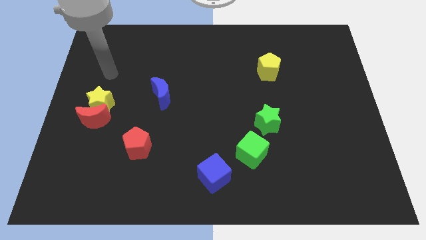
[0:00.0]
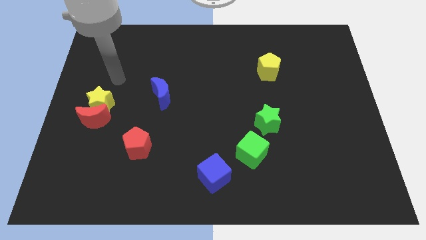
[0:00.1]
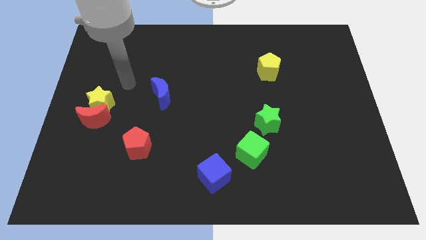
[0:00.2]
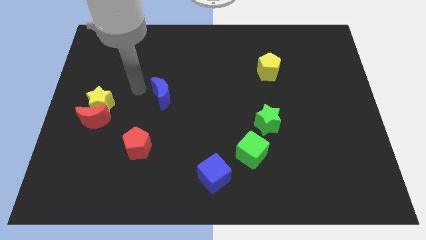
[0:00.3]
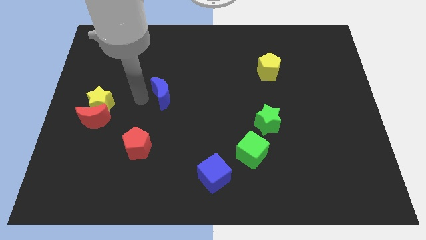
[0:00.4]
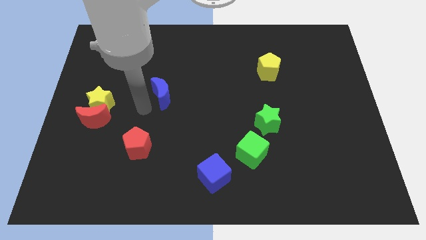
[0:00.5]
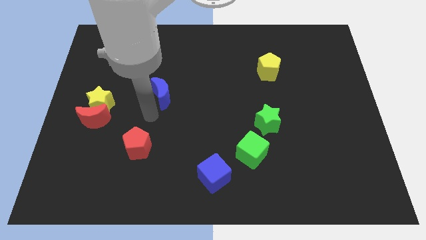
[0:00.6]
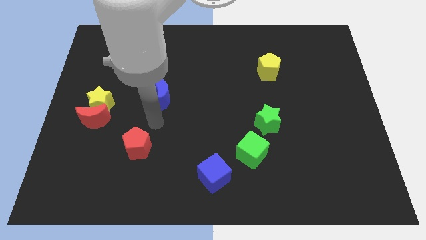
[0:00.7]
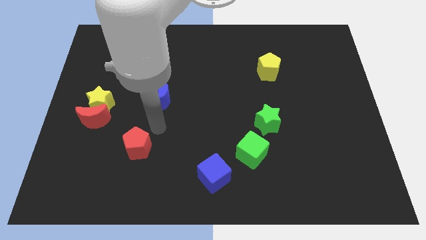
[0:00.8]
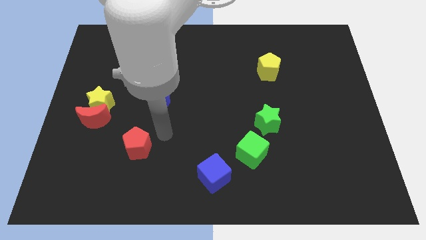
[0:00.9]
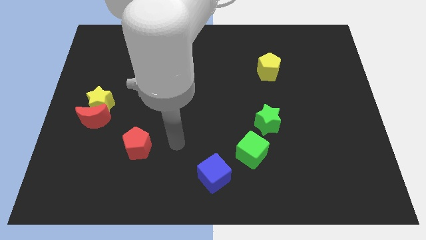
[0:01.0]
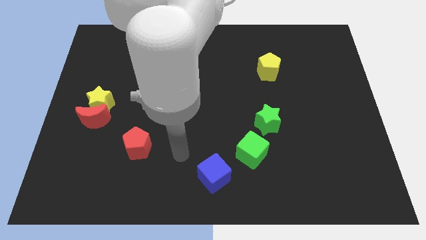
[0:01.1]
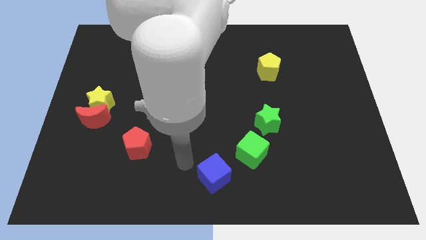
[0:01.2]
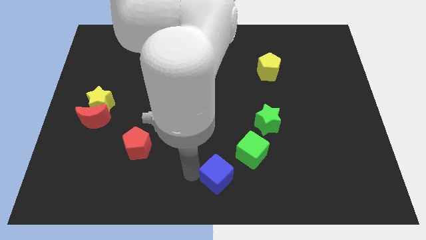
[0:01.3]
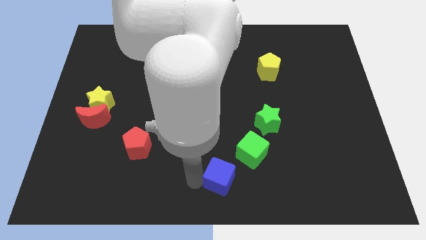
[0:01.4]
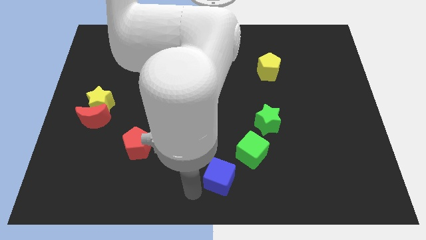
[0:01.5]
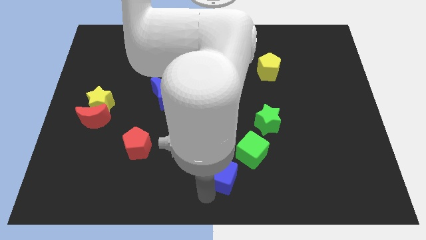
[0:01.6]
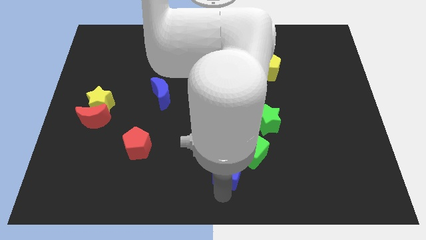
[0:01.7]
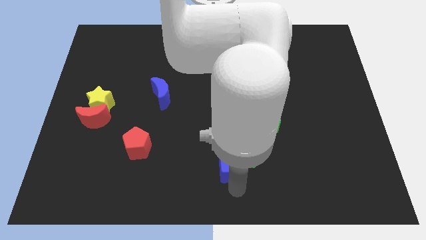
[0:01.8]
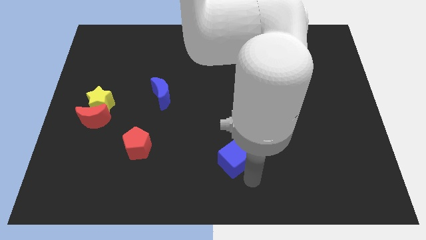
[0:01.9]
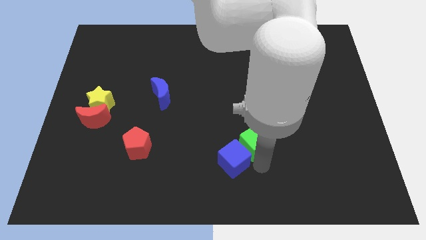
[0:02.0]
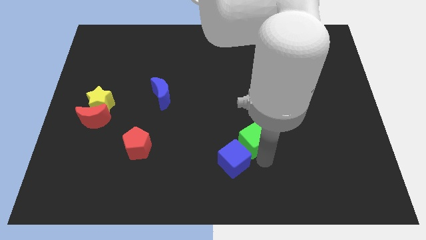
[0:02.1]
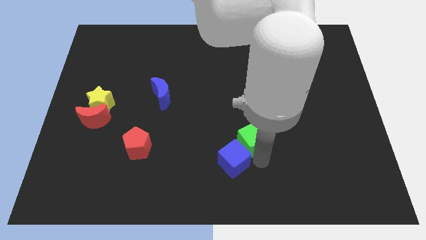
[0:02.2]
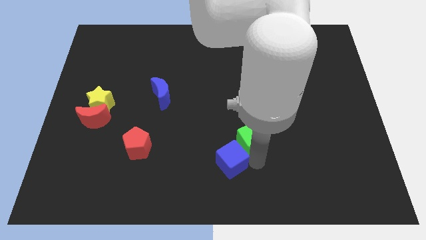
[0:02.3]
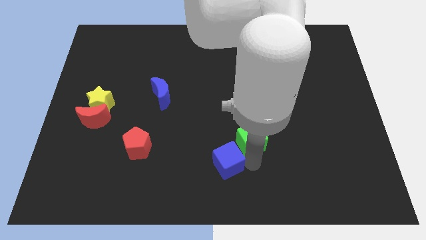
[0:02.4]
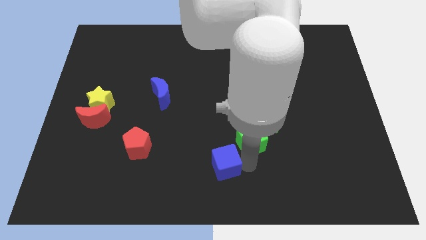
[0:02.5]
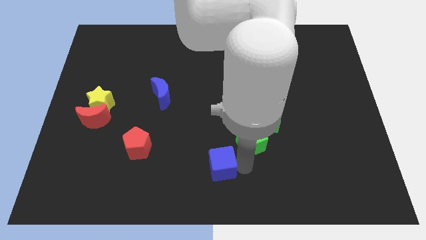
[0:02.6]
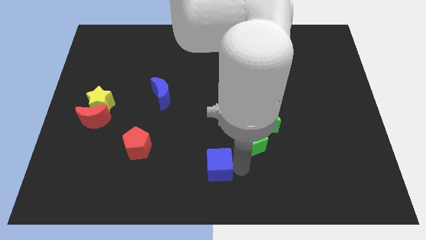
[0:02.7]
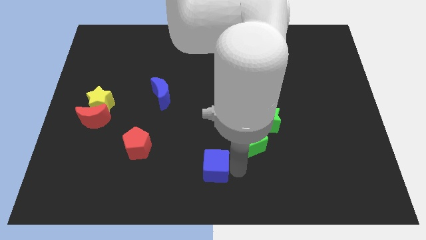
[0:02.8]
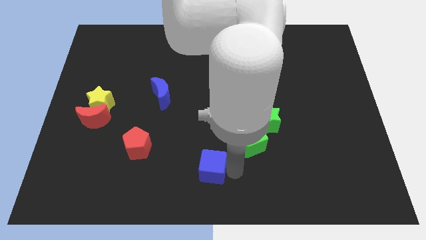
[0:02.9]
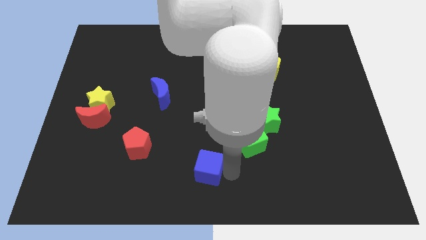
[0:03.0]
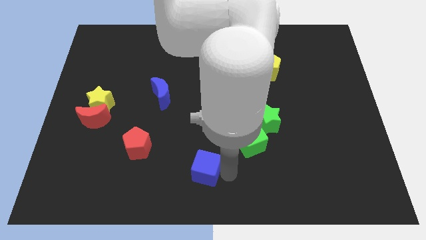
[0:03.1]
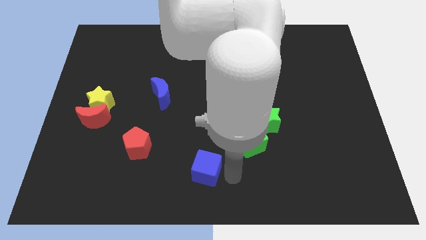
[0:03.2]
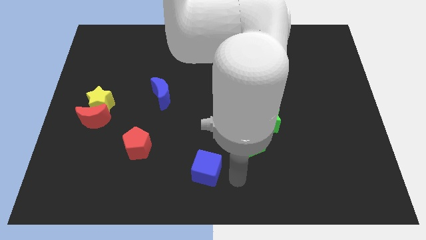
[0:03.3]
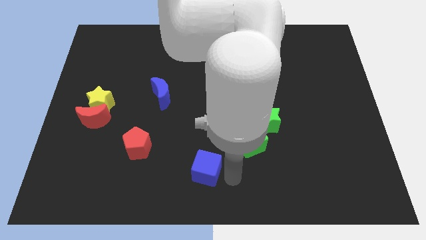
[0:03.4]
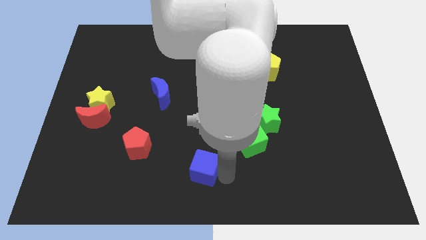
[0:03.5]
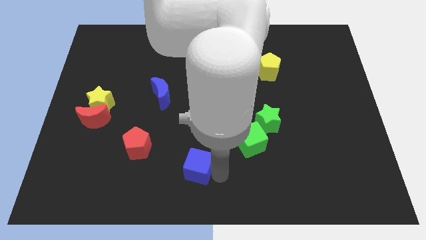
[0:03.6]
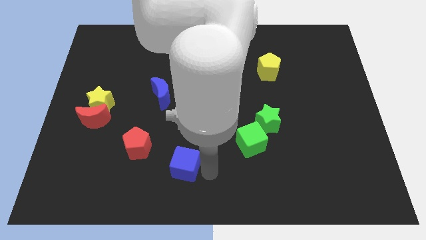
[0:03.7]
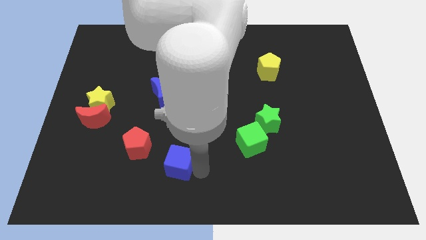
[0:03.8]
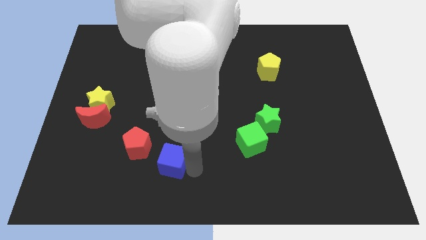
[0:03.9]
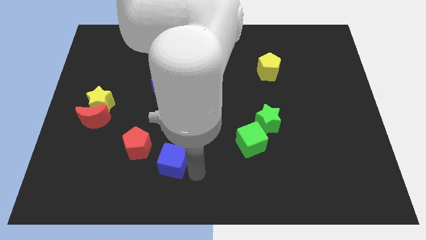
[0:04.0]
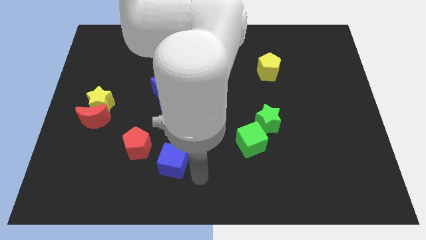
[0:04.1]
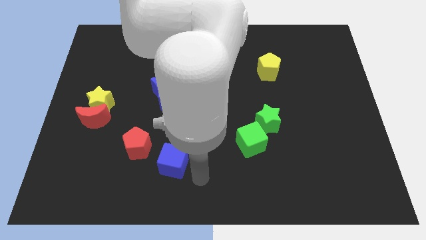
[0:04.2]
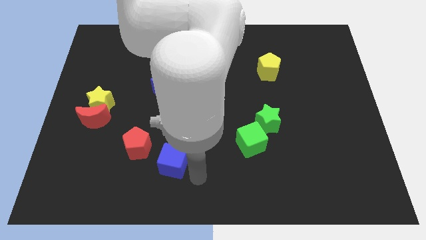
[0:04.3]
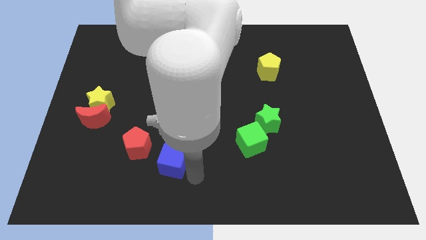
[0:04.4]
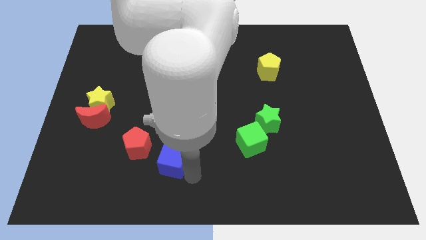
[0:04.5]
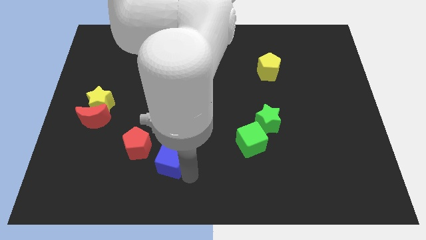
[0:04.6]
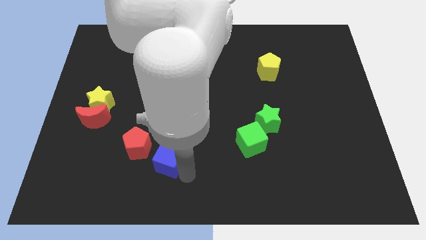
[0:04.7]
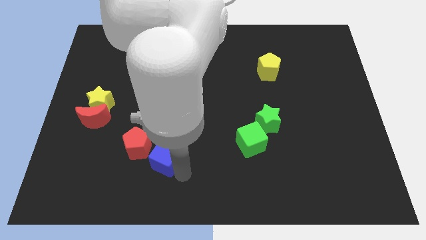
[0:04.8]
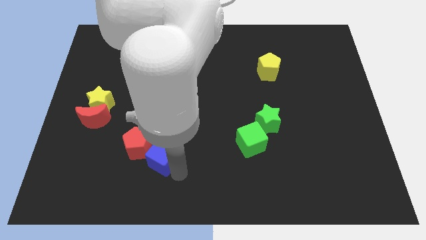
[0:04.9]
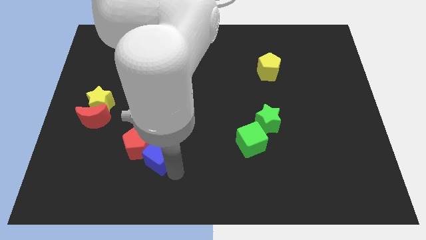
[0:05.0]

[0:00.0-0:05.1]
put the blue cube to the red pentagon

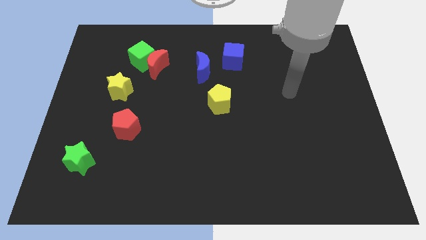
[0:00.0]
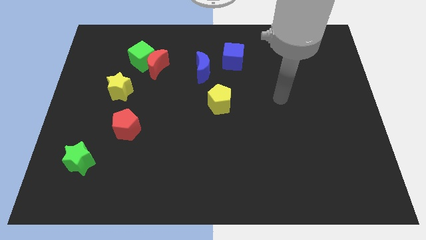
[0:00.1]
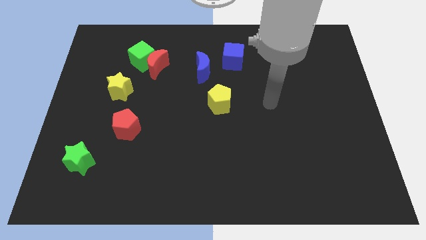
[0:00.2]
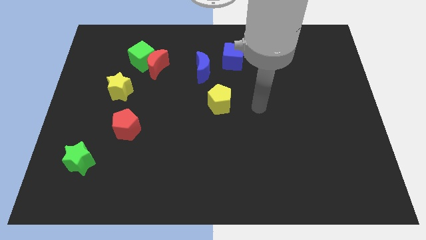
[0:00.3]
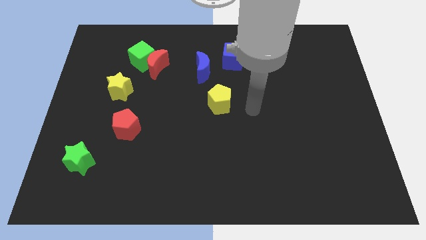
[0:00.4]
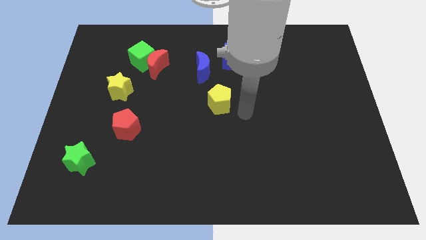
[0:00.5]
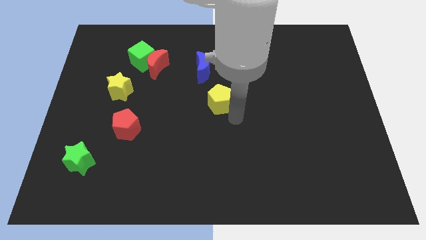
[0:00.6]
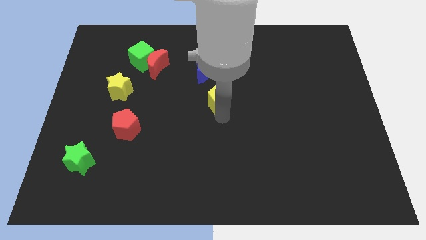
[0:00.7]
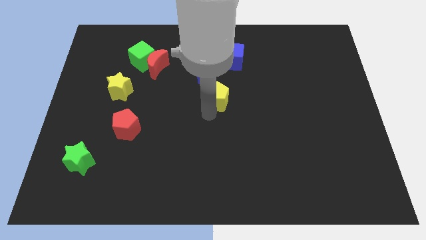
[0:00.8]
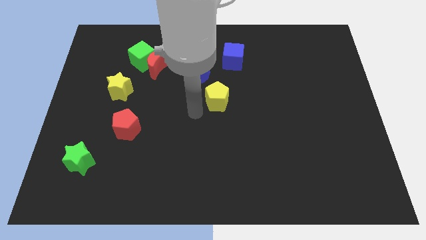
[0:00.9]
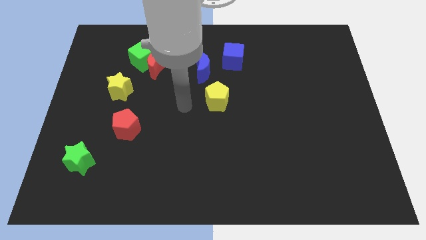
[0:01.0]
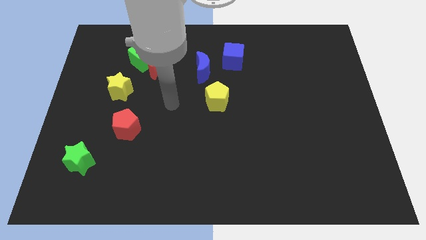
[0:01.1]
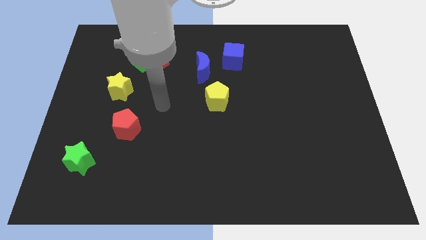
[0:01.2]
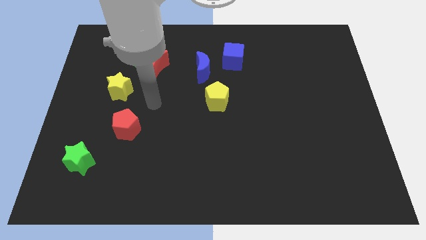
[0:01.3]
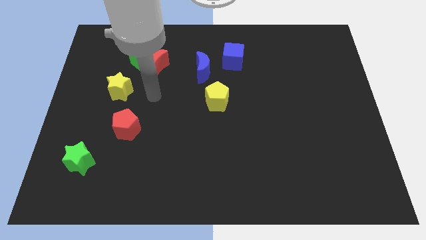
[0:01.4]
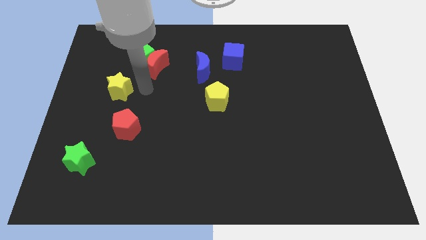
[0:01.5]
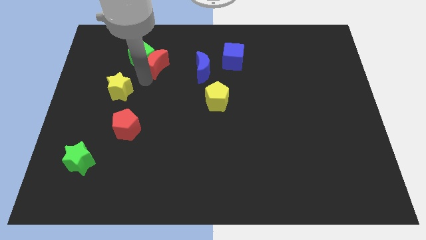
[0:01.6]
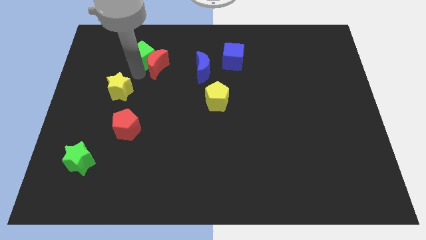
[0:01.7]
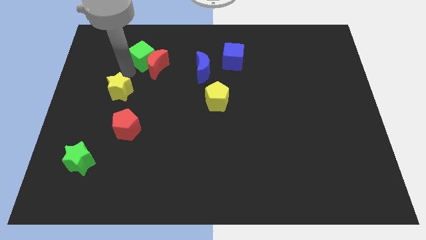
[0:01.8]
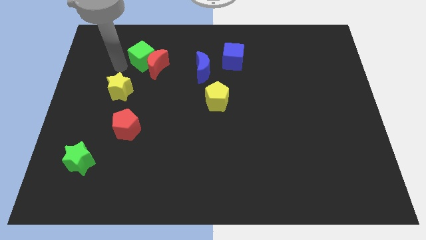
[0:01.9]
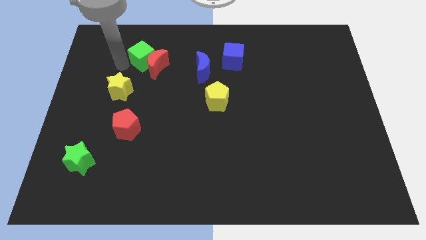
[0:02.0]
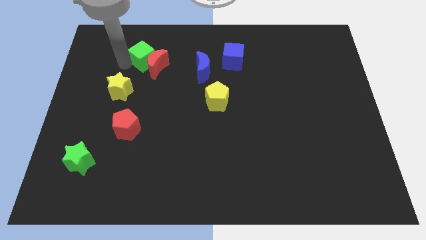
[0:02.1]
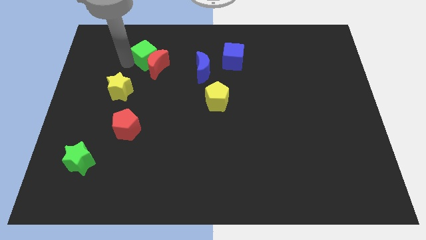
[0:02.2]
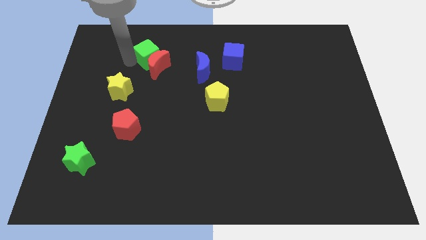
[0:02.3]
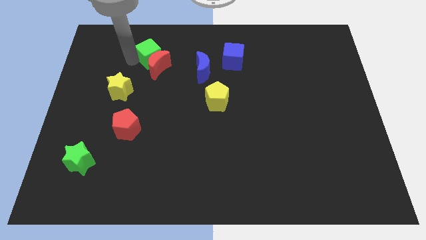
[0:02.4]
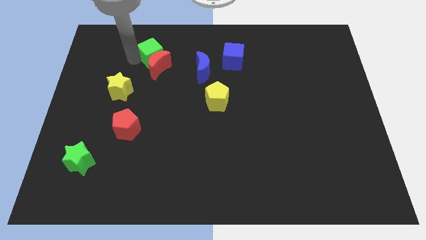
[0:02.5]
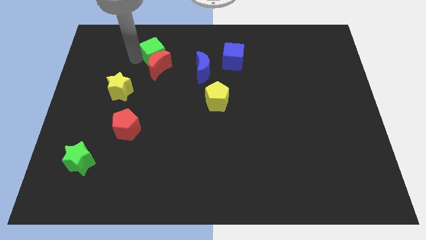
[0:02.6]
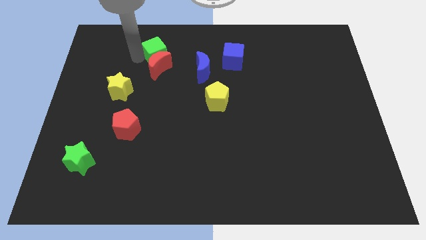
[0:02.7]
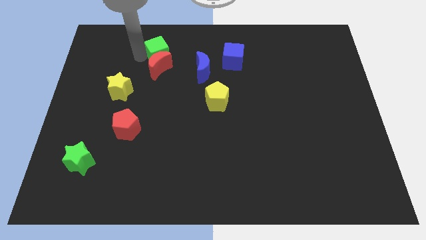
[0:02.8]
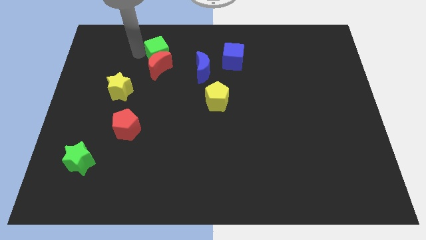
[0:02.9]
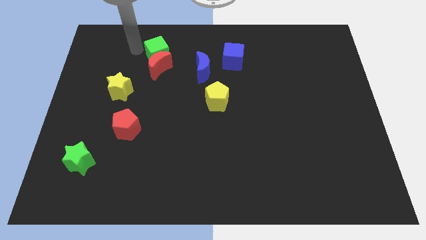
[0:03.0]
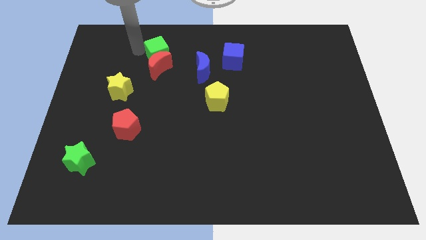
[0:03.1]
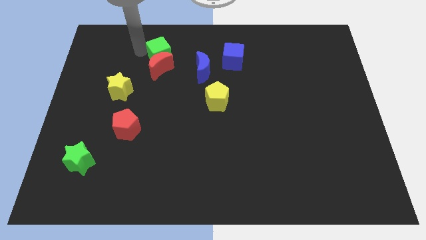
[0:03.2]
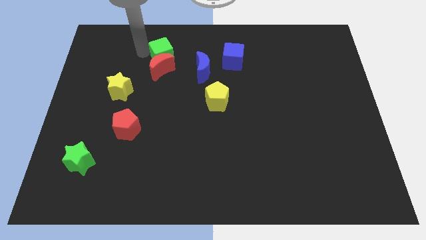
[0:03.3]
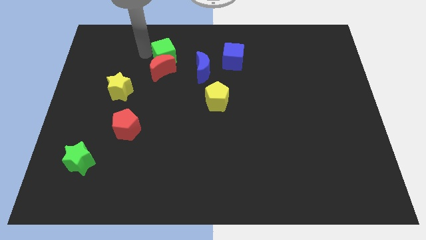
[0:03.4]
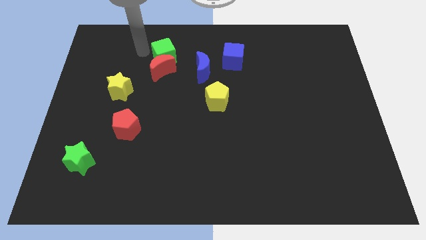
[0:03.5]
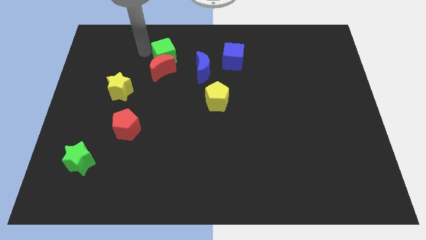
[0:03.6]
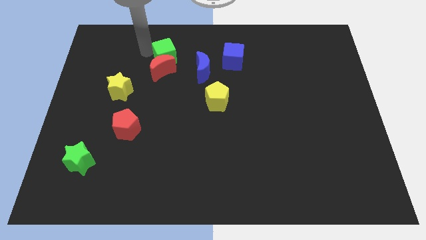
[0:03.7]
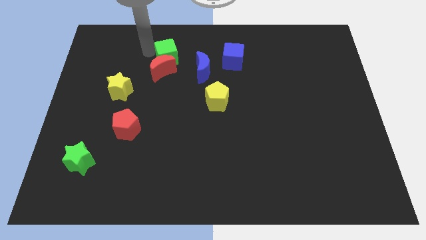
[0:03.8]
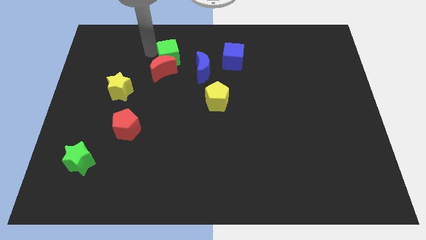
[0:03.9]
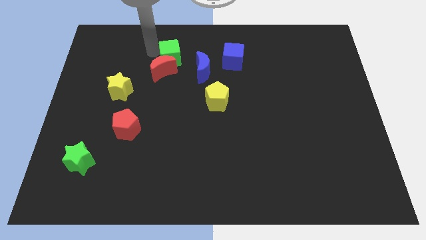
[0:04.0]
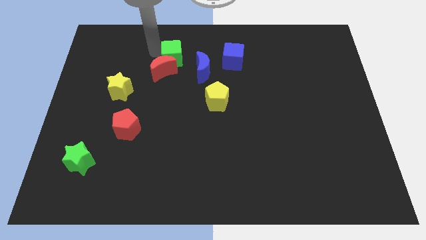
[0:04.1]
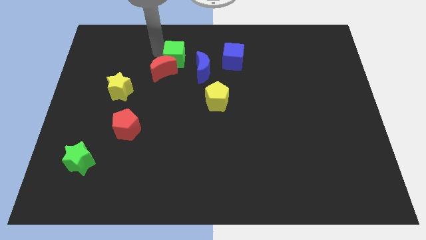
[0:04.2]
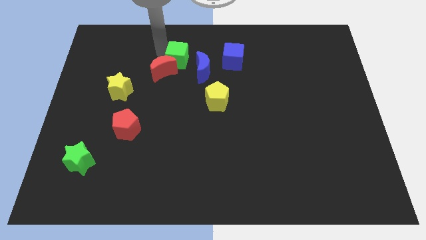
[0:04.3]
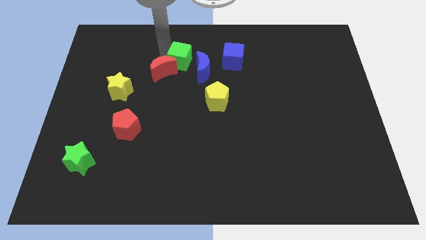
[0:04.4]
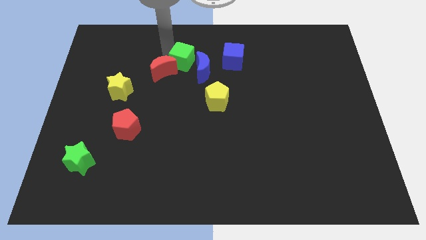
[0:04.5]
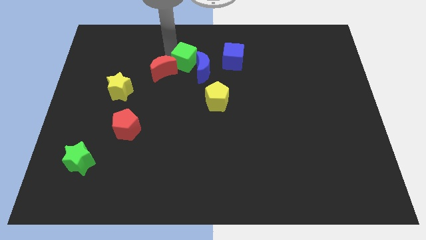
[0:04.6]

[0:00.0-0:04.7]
put the green cube close to the blue moon
